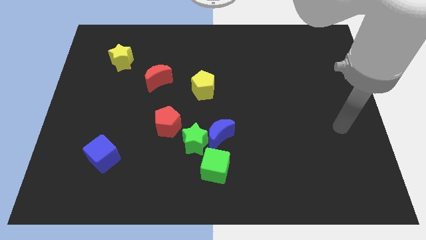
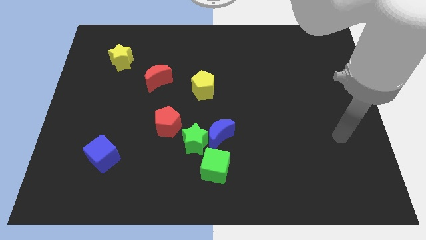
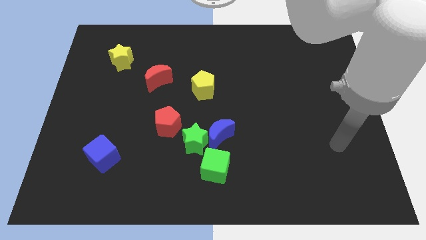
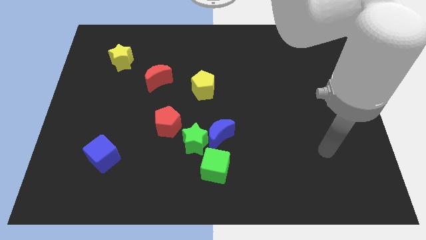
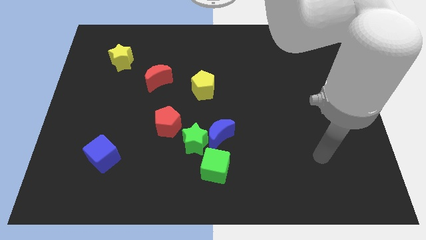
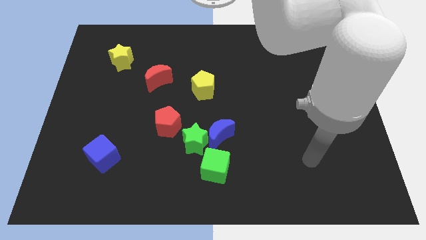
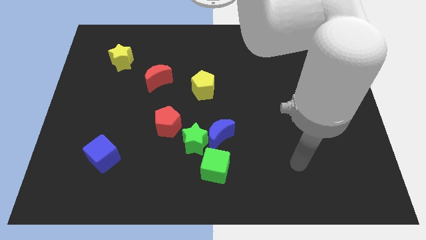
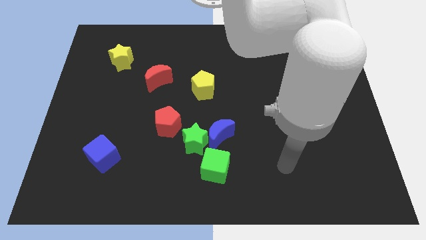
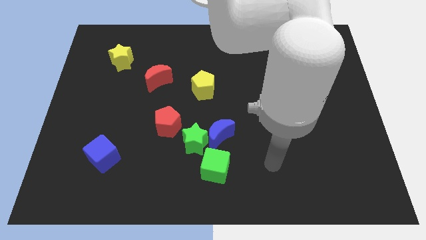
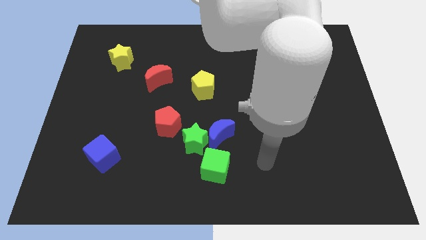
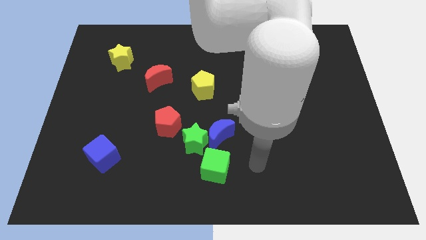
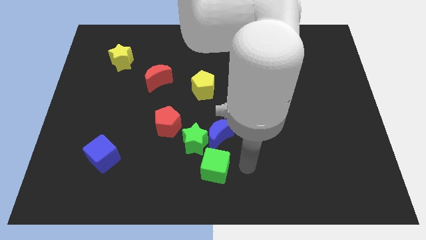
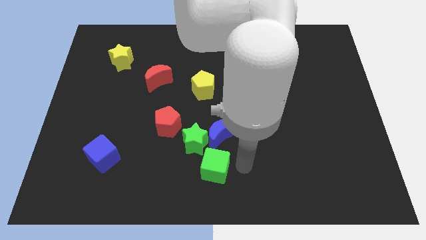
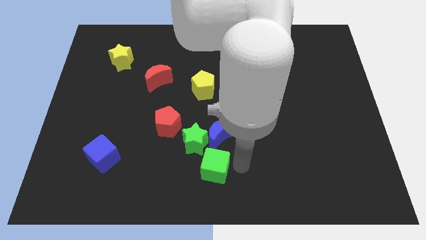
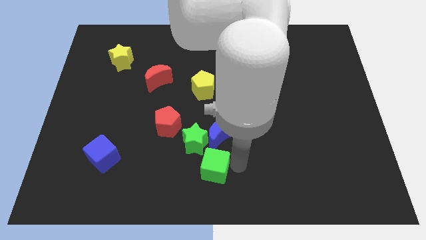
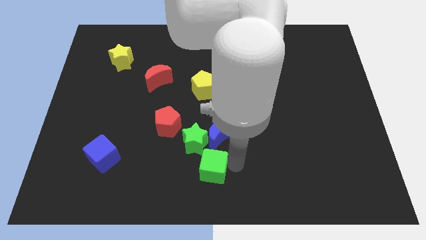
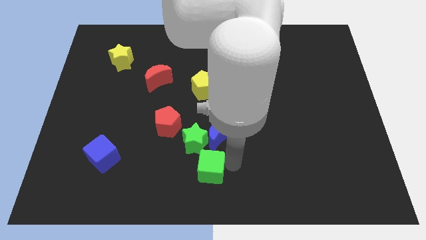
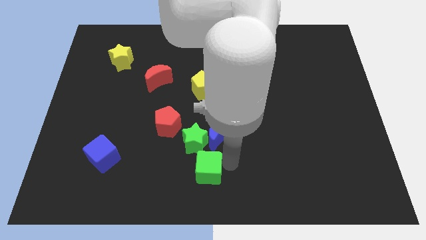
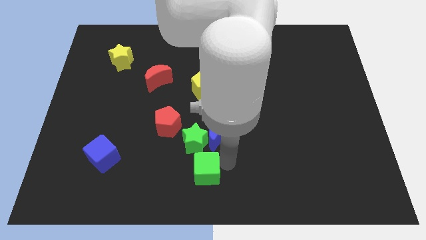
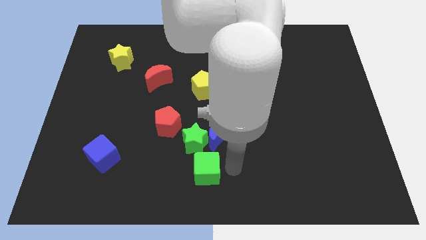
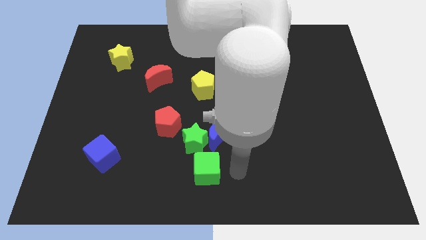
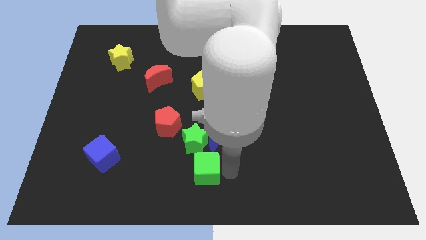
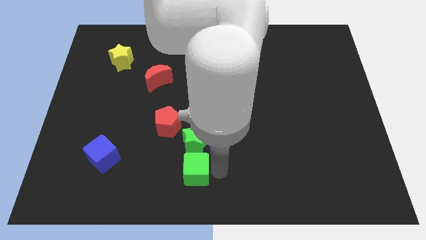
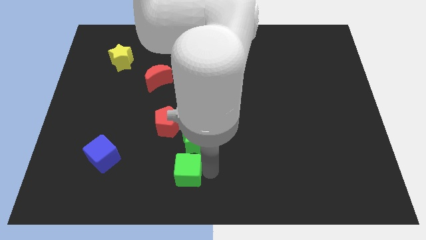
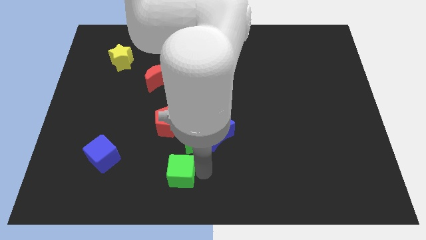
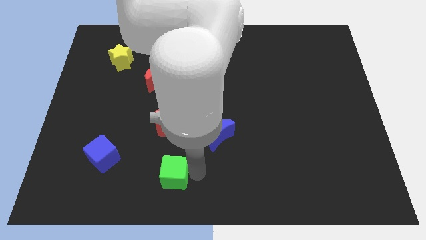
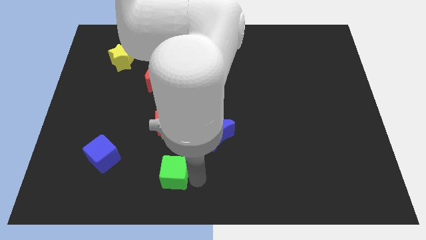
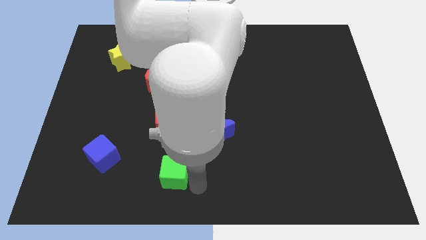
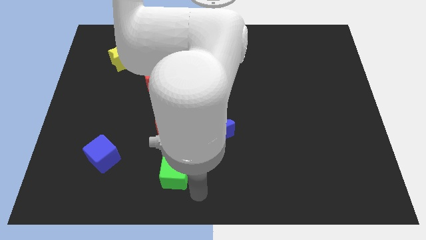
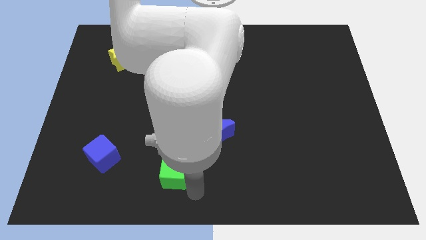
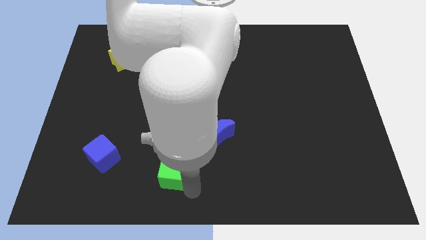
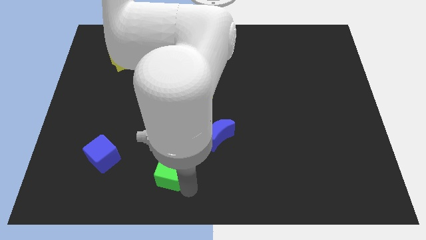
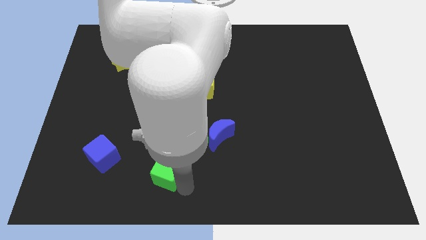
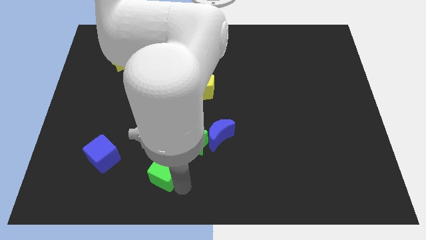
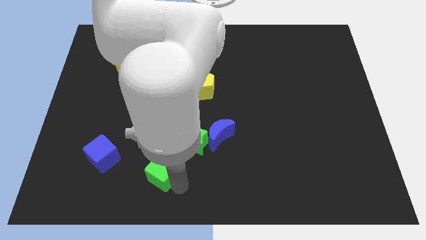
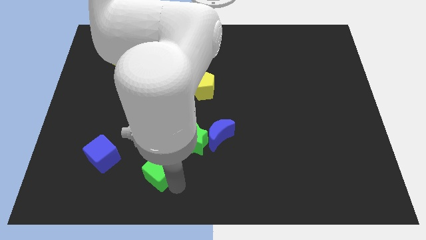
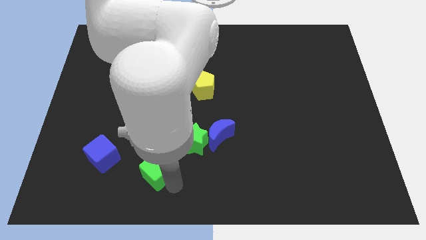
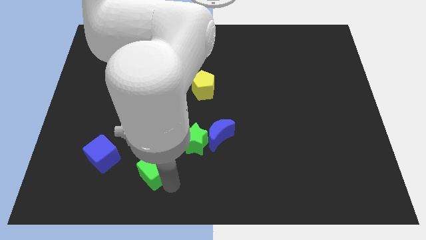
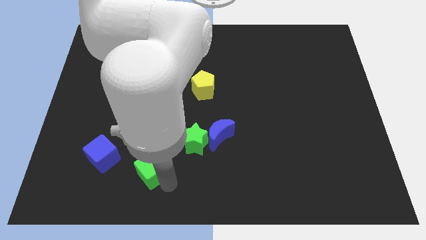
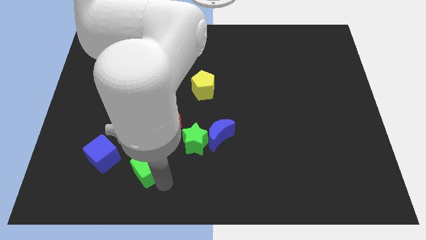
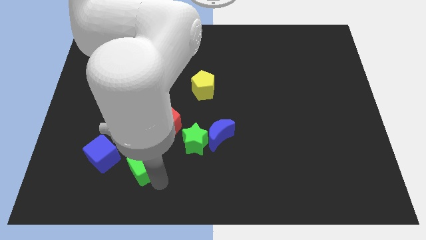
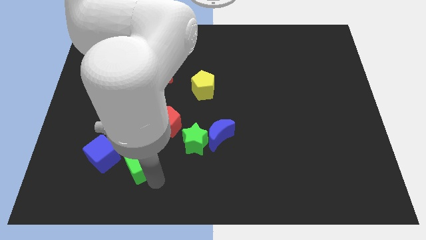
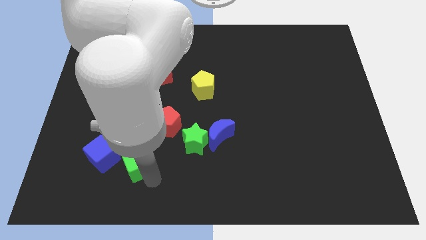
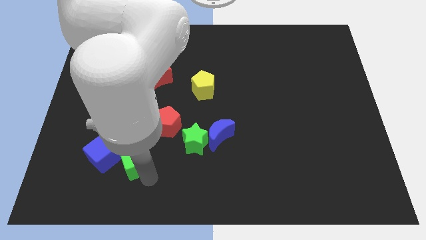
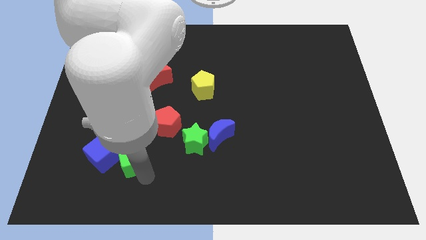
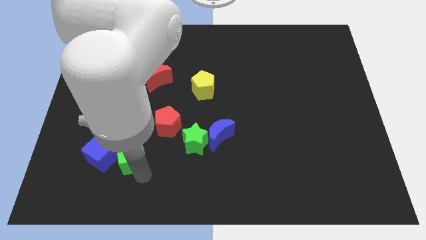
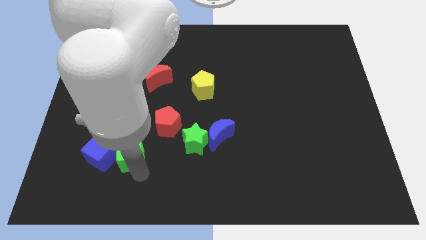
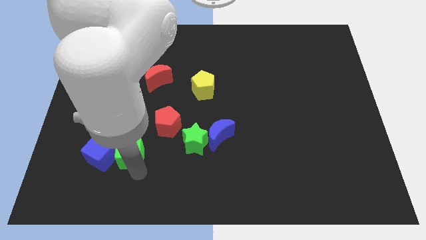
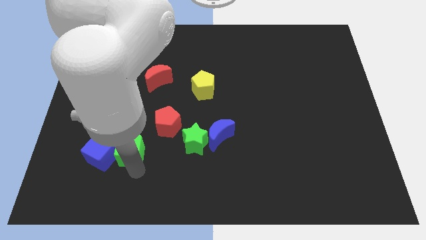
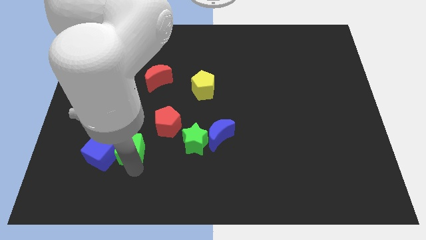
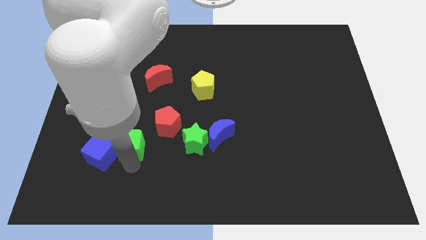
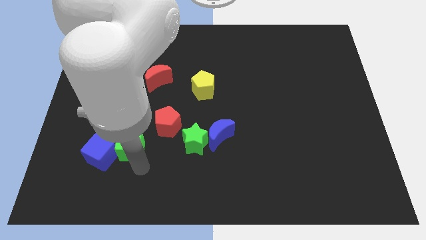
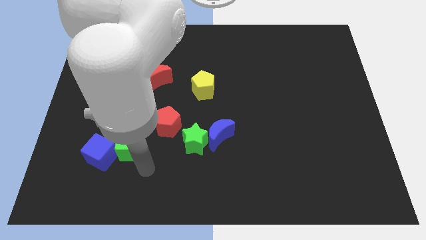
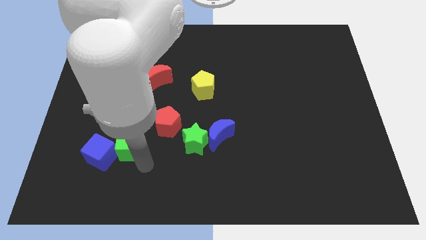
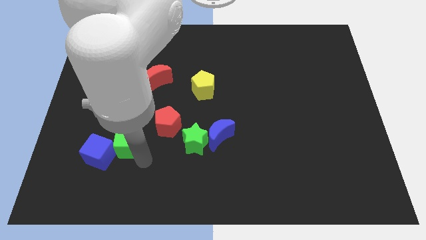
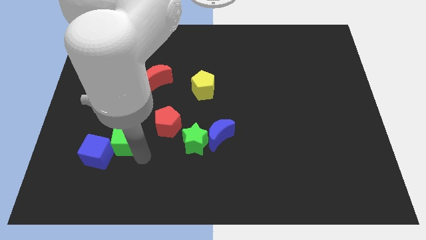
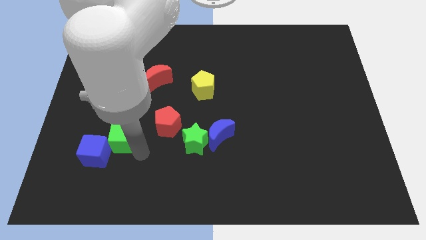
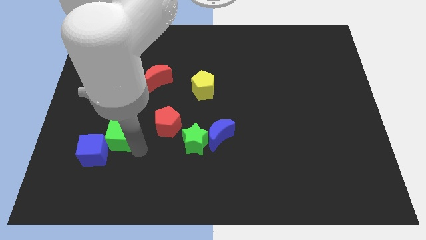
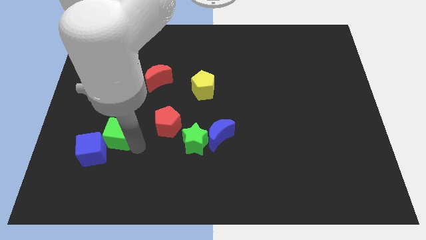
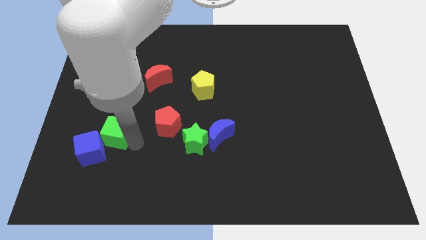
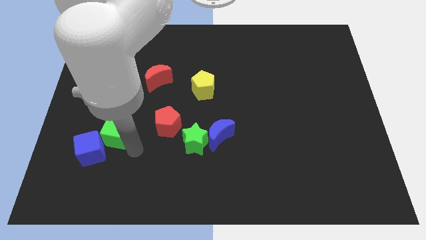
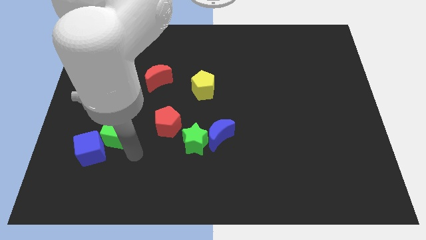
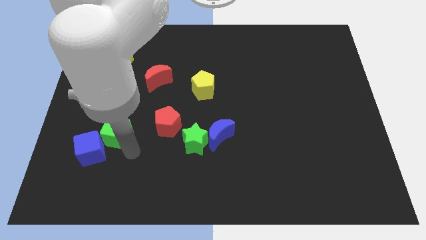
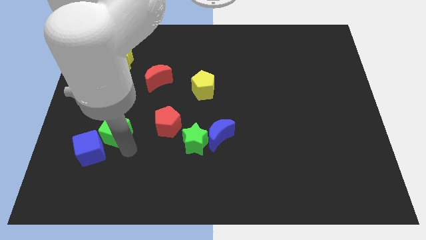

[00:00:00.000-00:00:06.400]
move the green cube above the blue cube

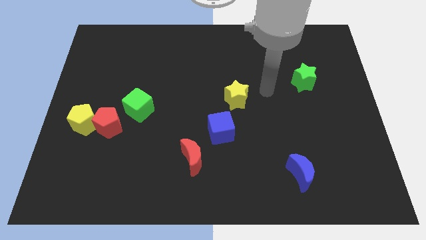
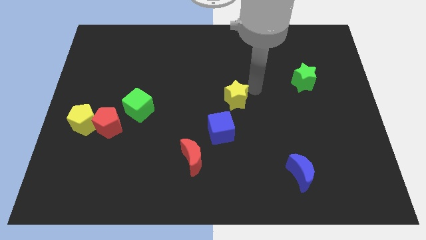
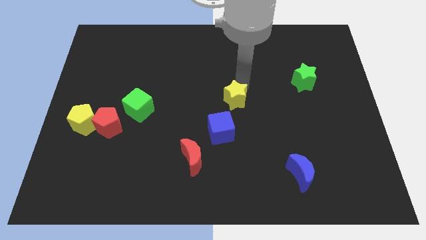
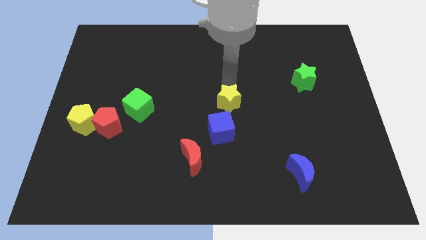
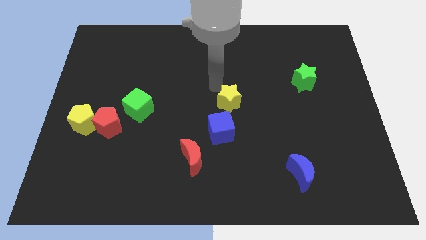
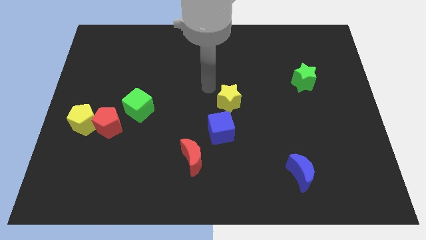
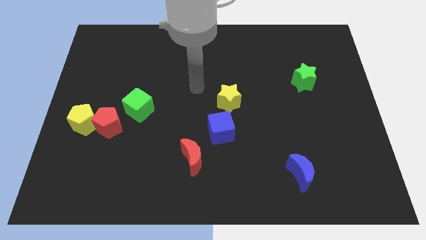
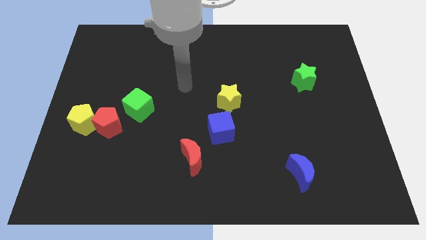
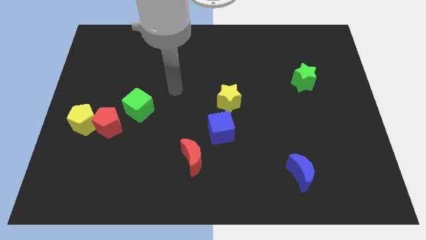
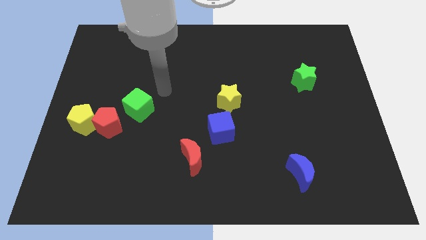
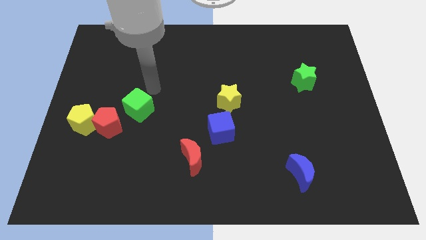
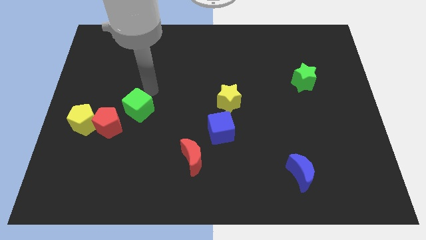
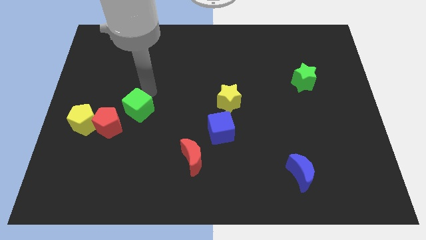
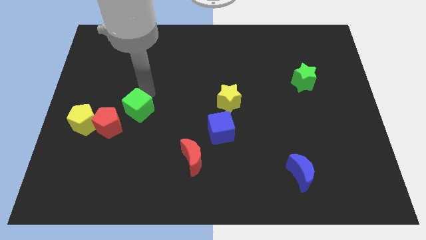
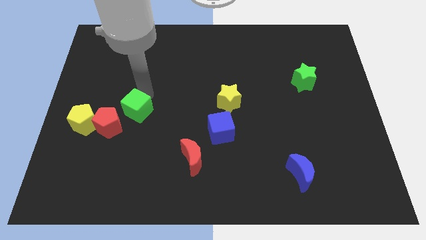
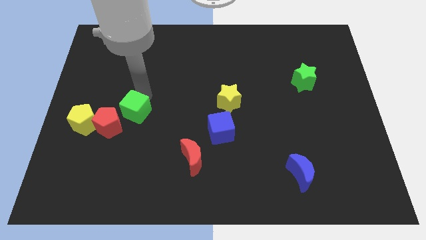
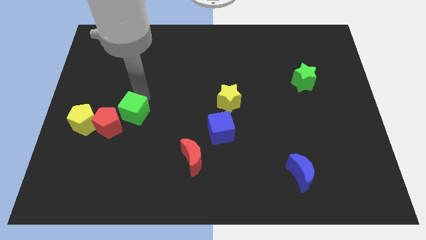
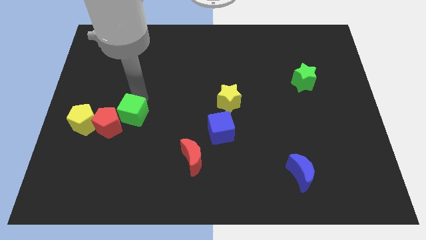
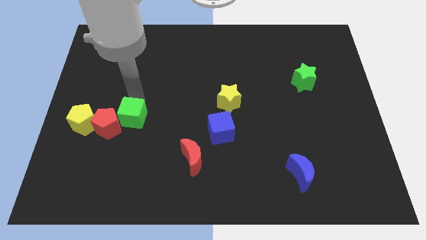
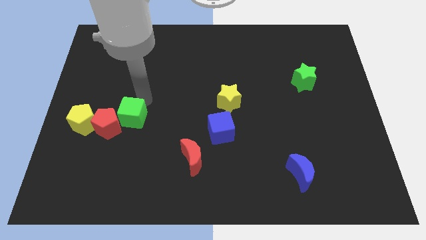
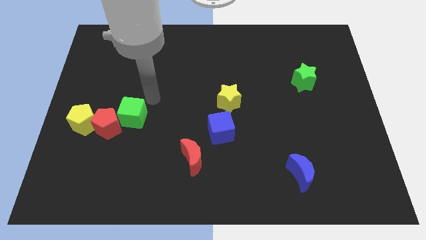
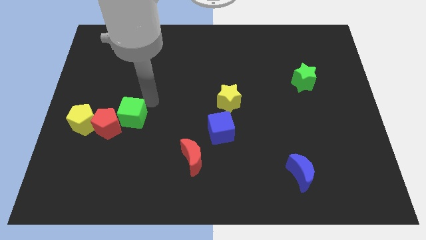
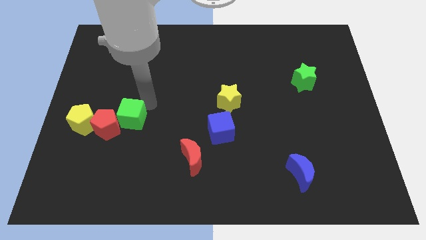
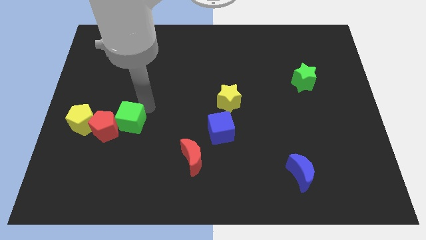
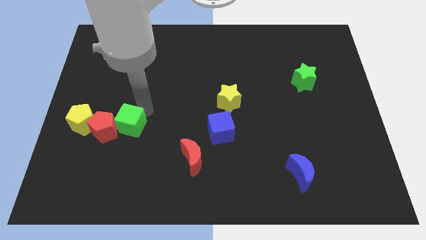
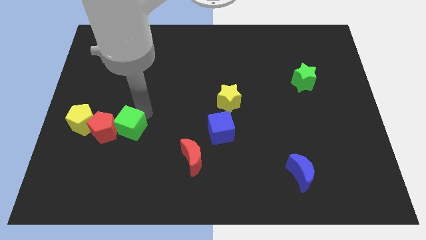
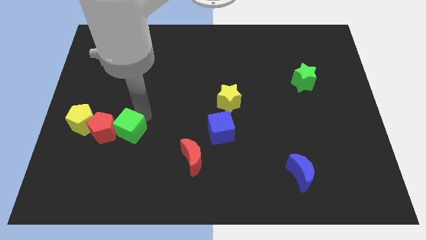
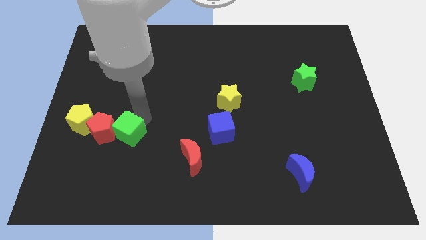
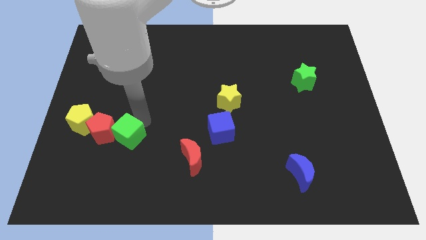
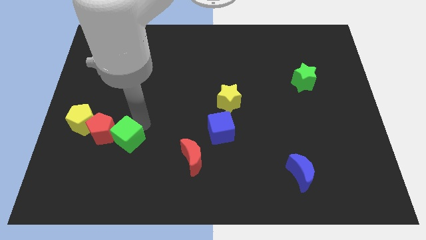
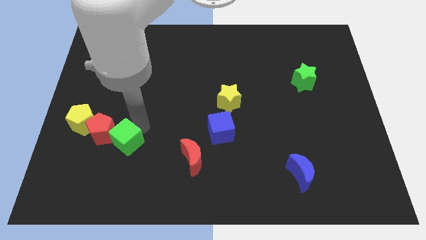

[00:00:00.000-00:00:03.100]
slide the green cube to the bottom right of the yellow pentagon
